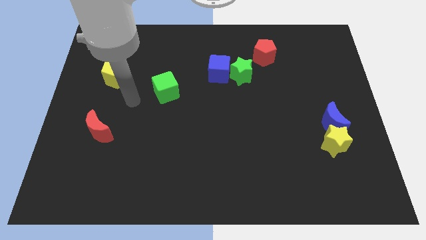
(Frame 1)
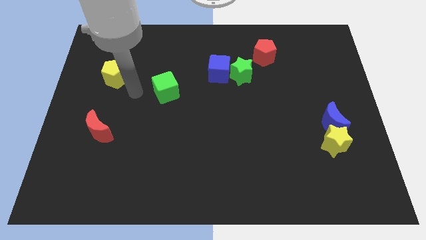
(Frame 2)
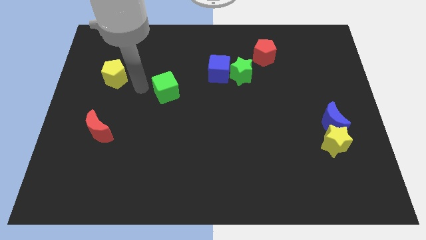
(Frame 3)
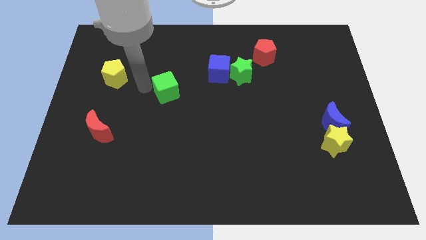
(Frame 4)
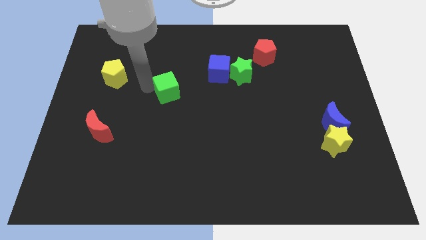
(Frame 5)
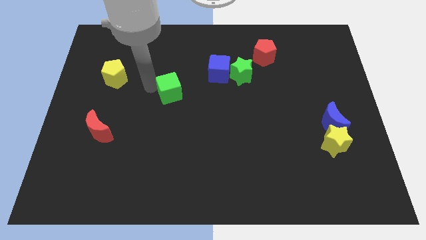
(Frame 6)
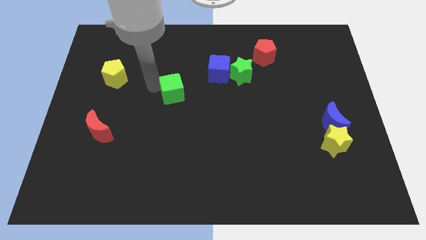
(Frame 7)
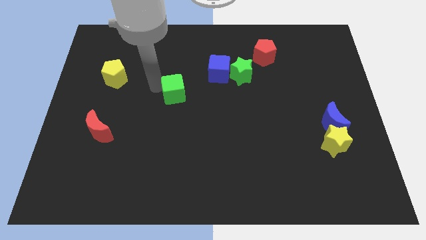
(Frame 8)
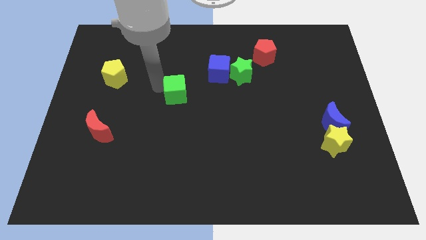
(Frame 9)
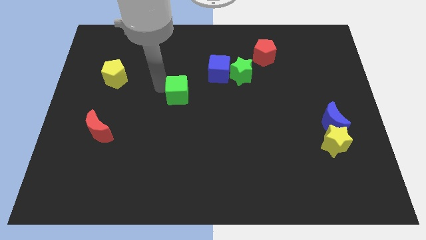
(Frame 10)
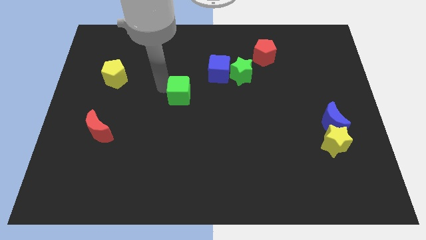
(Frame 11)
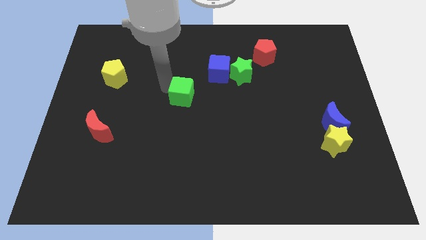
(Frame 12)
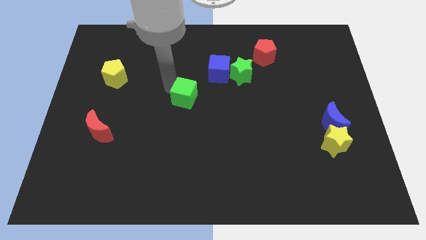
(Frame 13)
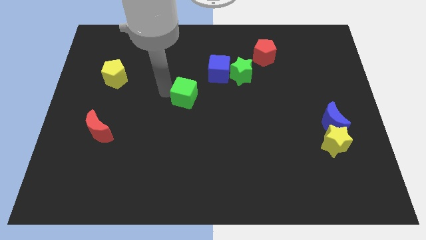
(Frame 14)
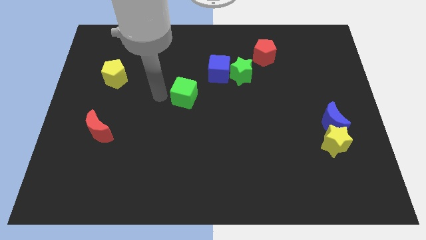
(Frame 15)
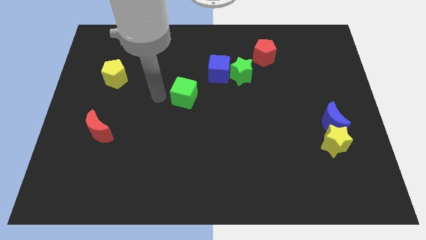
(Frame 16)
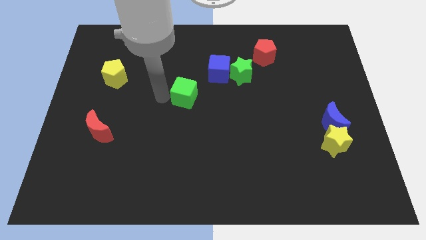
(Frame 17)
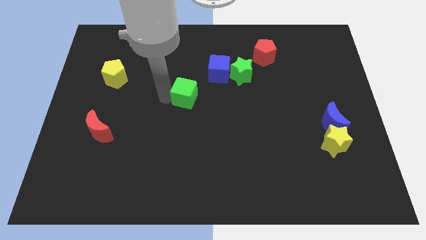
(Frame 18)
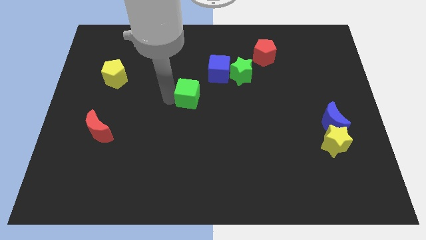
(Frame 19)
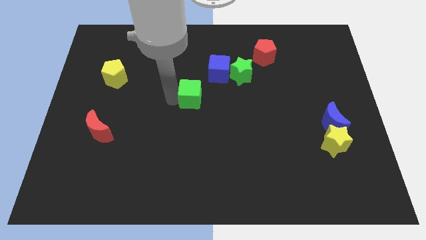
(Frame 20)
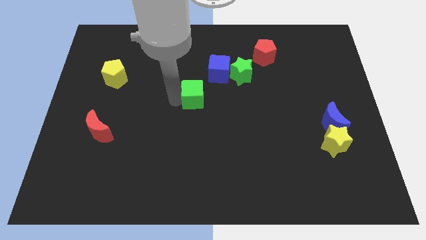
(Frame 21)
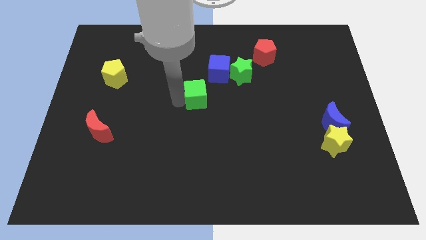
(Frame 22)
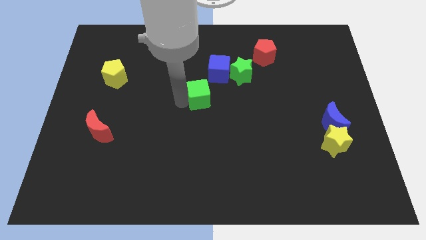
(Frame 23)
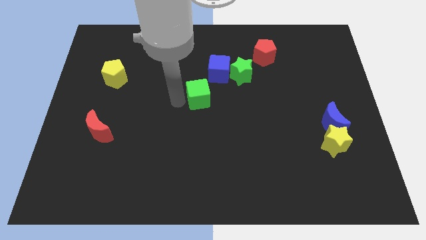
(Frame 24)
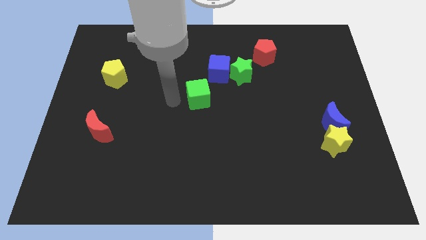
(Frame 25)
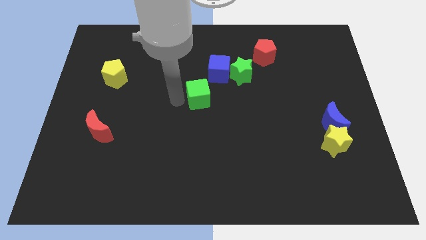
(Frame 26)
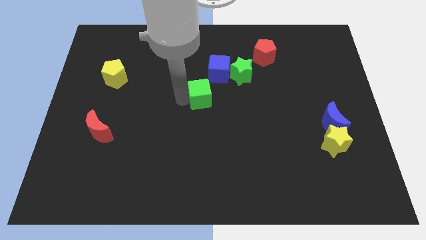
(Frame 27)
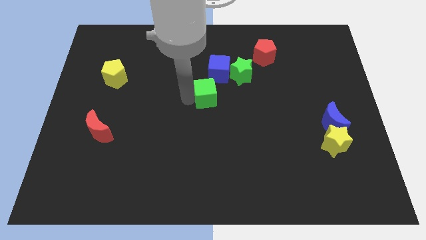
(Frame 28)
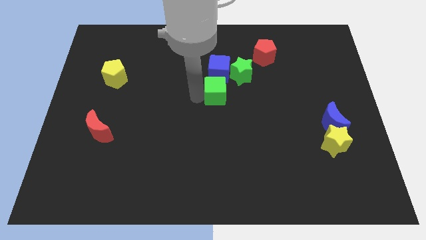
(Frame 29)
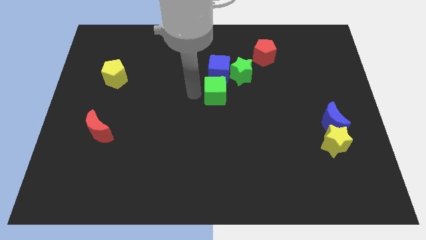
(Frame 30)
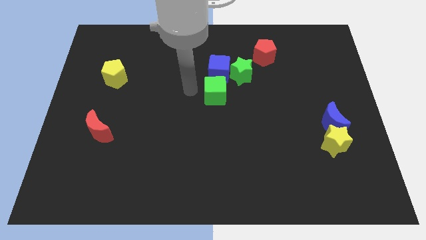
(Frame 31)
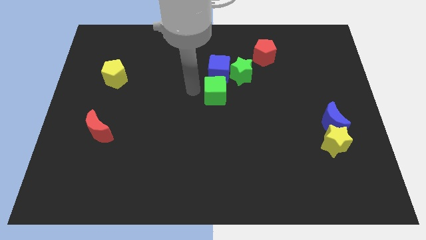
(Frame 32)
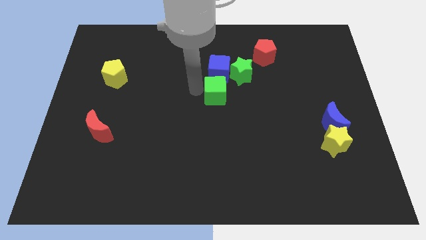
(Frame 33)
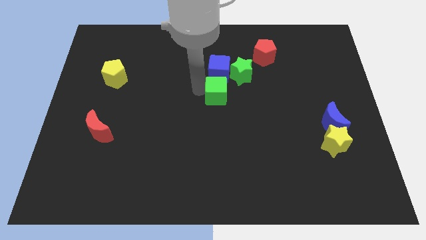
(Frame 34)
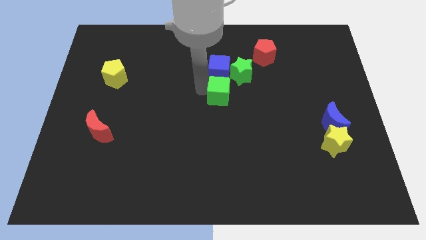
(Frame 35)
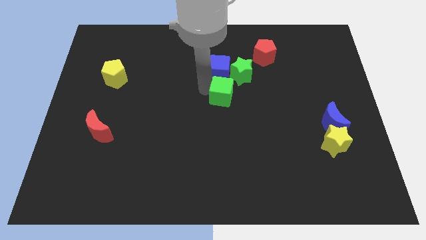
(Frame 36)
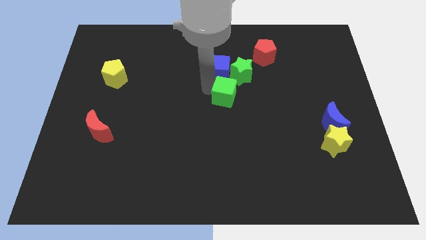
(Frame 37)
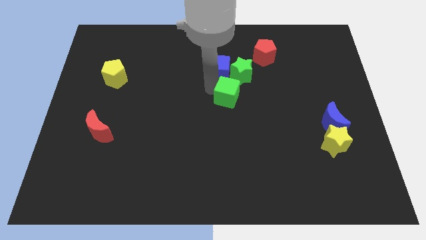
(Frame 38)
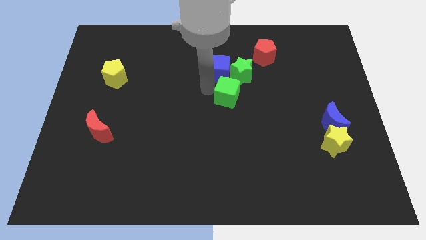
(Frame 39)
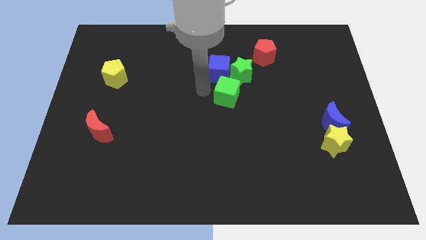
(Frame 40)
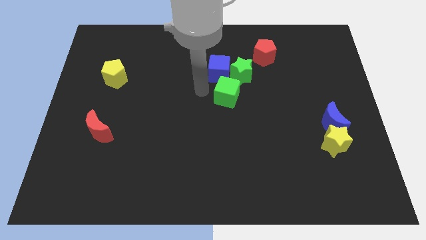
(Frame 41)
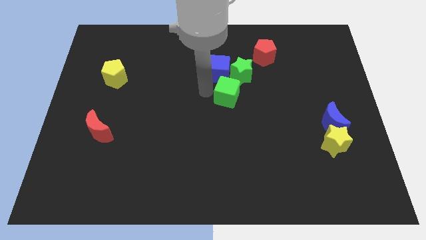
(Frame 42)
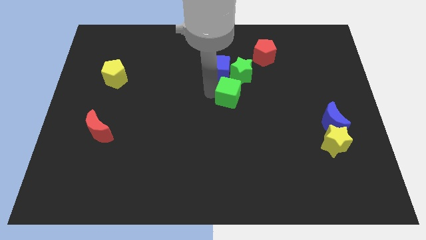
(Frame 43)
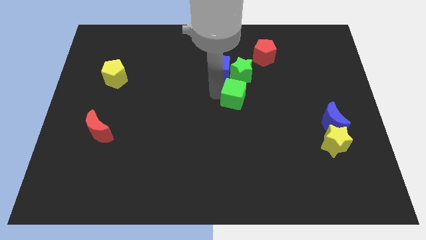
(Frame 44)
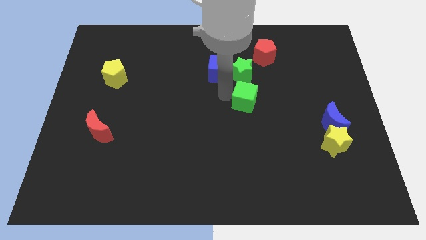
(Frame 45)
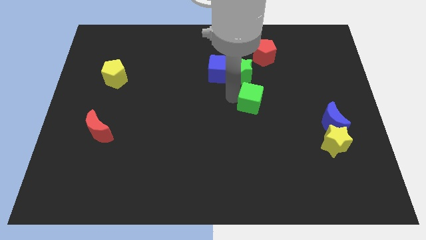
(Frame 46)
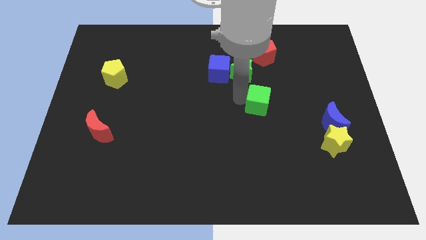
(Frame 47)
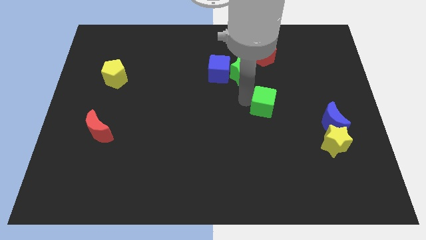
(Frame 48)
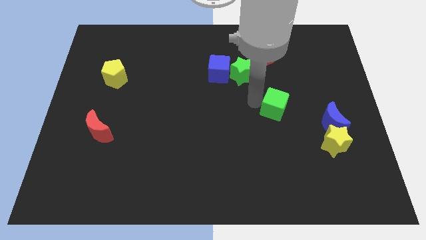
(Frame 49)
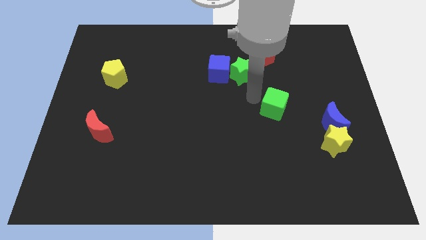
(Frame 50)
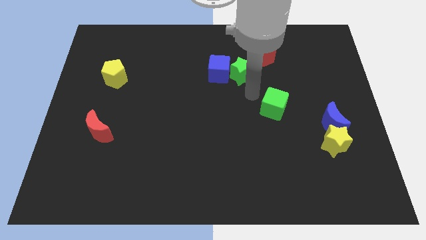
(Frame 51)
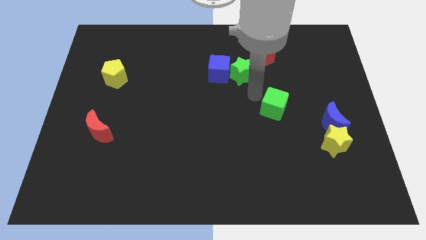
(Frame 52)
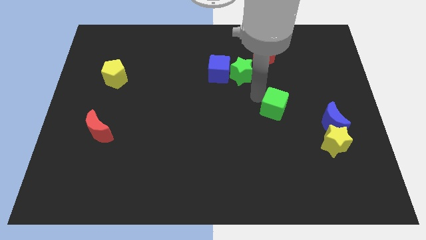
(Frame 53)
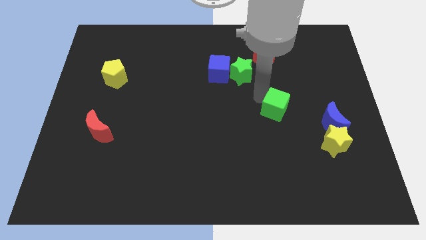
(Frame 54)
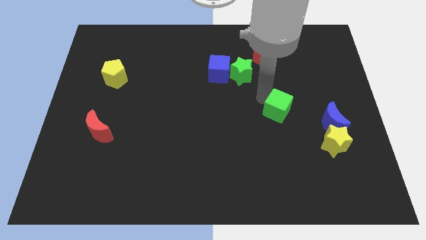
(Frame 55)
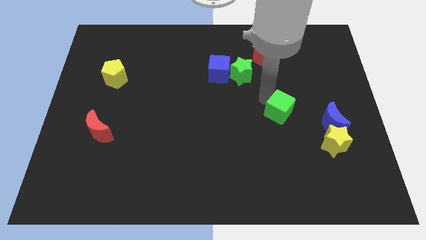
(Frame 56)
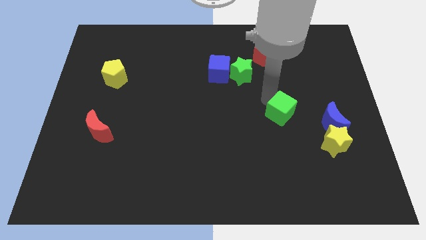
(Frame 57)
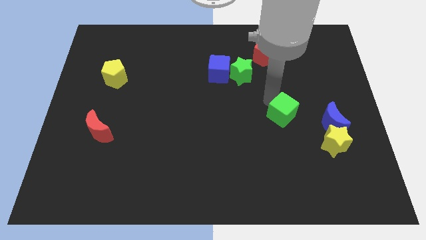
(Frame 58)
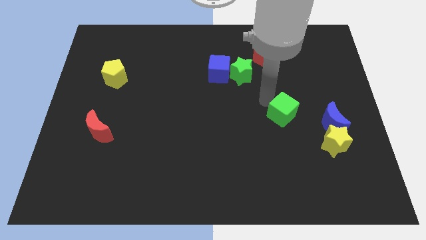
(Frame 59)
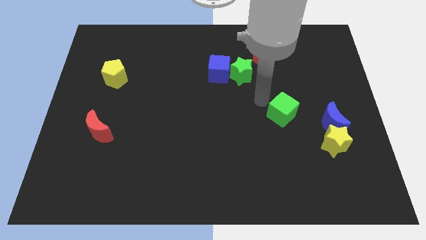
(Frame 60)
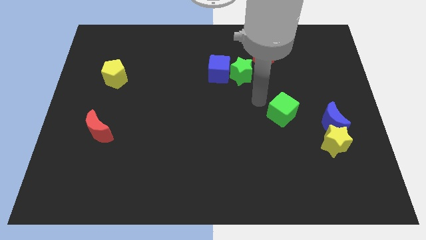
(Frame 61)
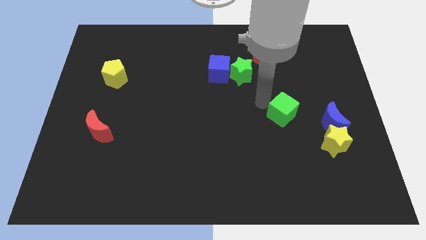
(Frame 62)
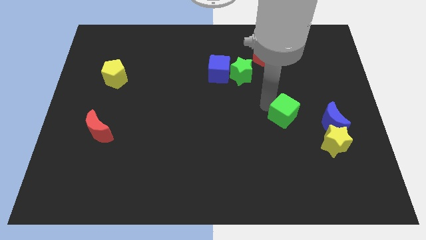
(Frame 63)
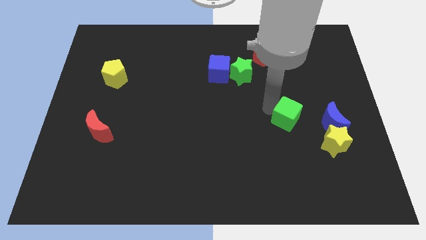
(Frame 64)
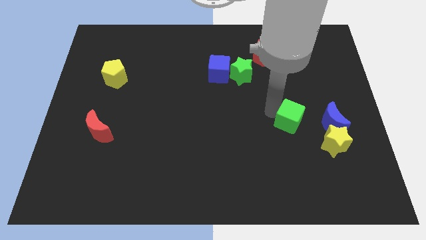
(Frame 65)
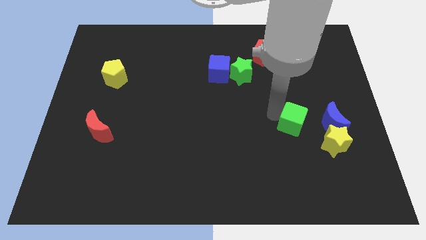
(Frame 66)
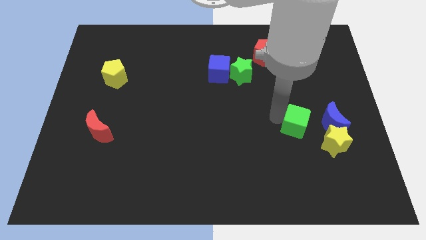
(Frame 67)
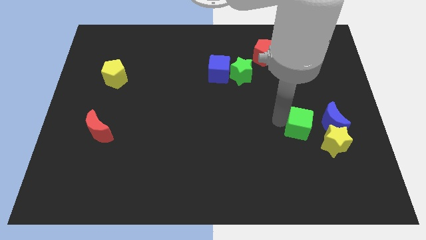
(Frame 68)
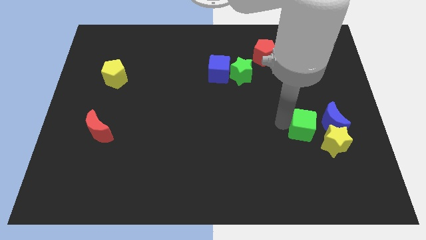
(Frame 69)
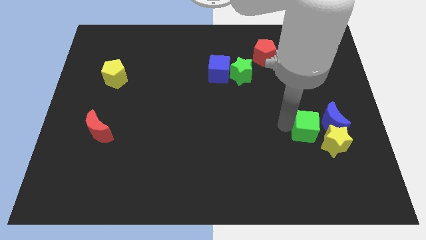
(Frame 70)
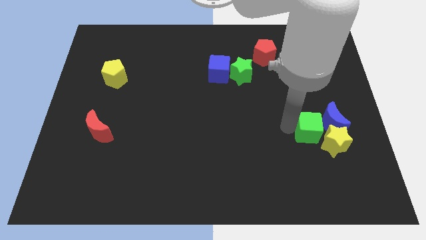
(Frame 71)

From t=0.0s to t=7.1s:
put the green cube close to the blue moon
